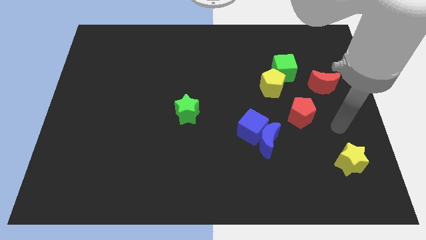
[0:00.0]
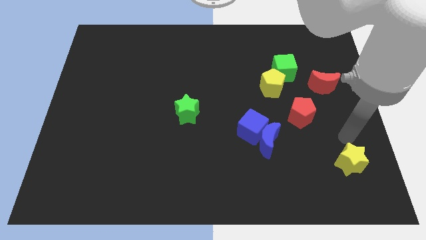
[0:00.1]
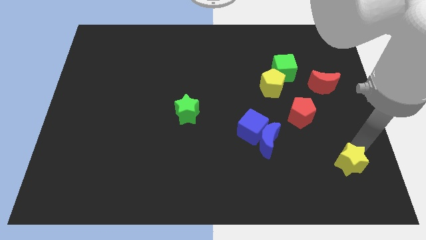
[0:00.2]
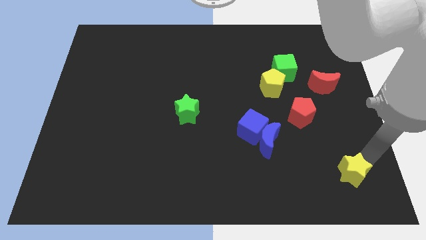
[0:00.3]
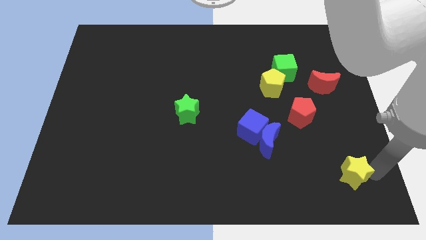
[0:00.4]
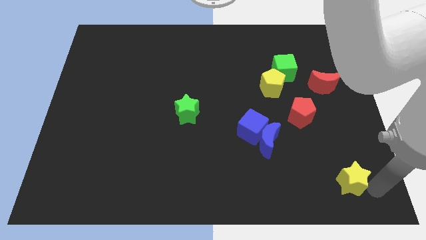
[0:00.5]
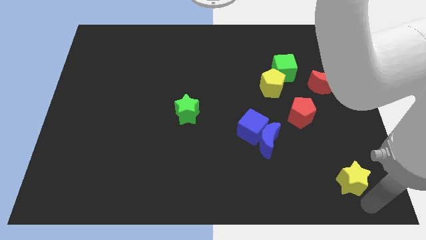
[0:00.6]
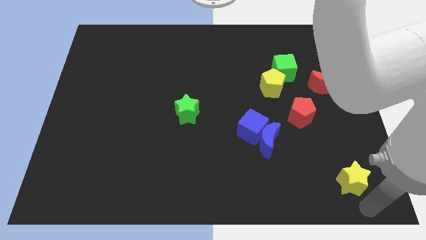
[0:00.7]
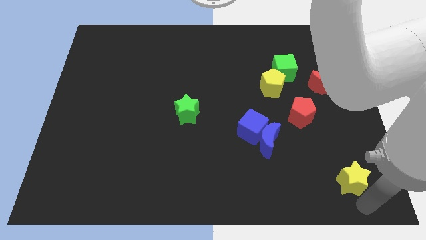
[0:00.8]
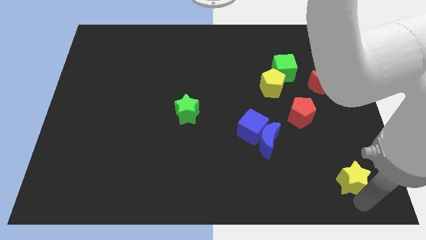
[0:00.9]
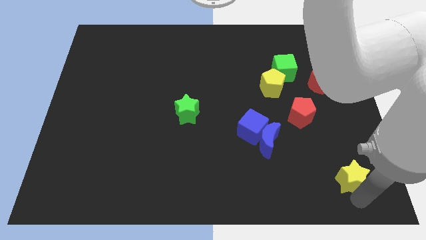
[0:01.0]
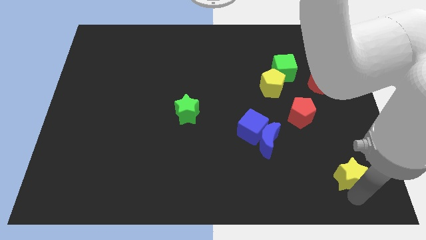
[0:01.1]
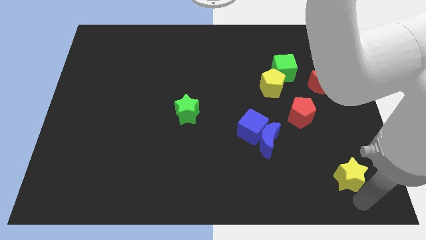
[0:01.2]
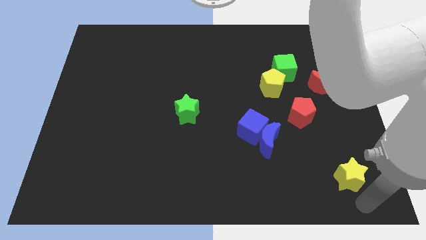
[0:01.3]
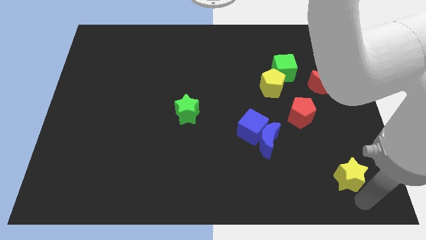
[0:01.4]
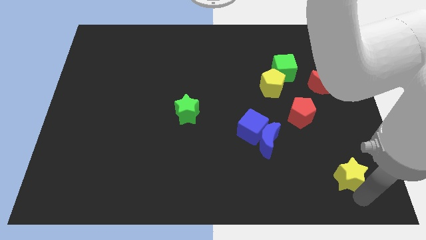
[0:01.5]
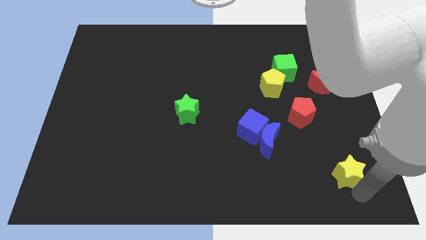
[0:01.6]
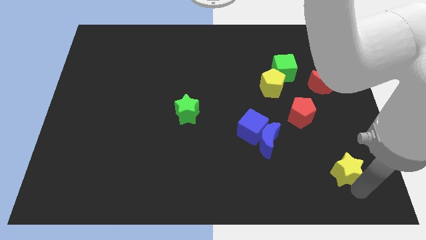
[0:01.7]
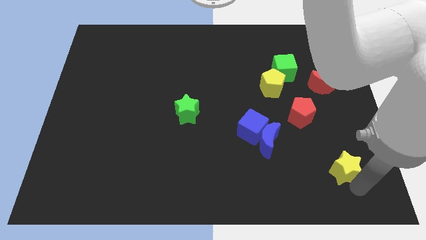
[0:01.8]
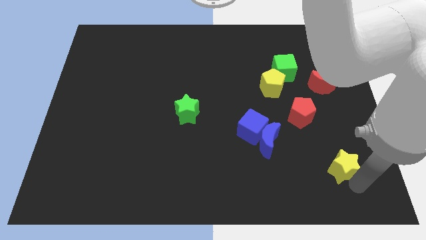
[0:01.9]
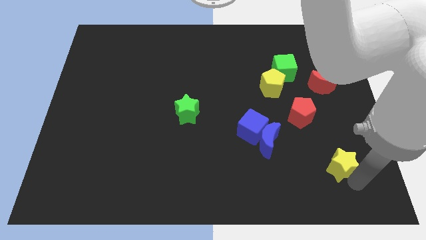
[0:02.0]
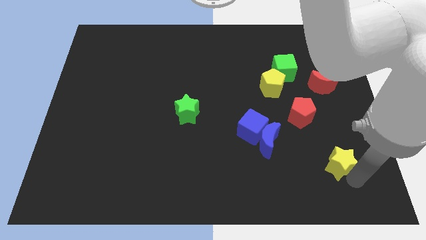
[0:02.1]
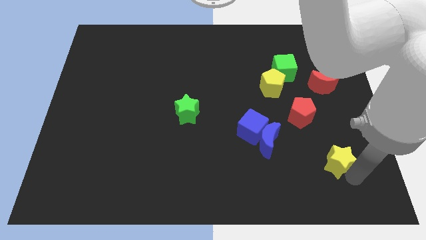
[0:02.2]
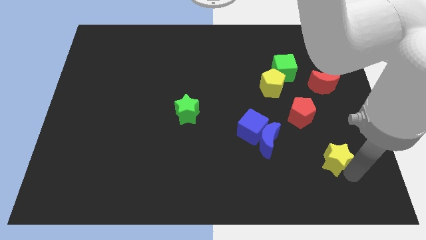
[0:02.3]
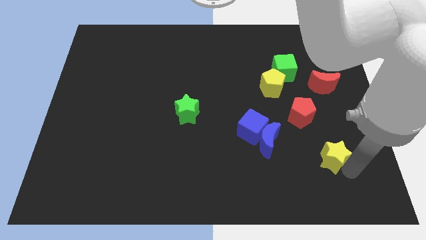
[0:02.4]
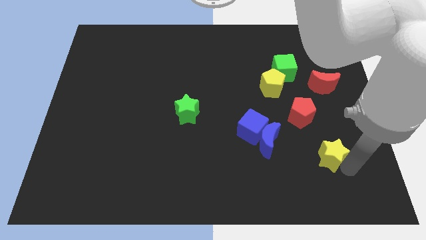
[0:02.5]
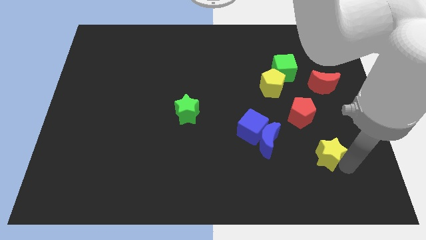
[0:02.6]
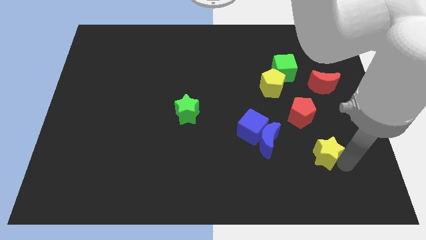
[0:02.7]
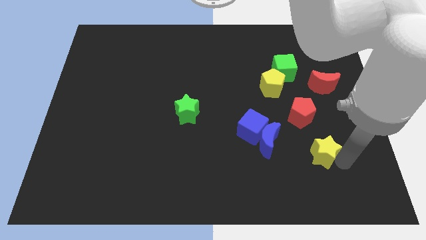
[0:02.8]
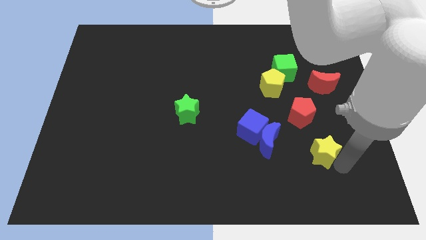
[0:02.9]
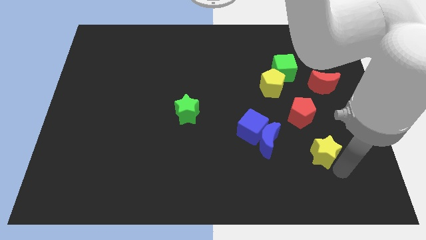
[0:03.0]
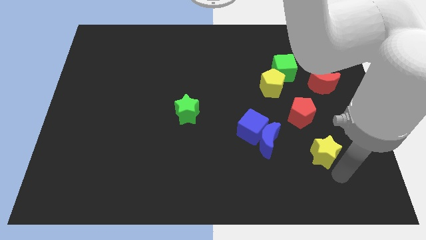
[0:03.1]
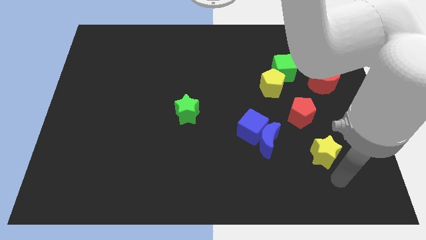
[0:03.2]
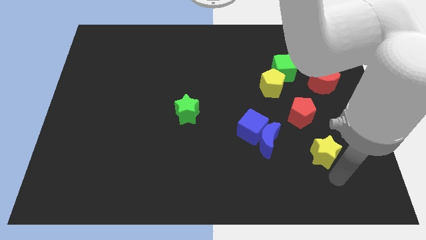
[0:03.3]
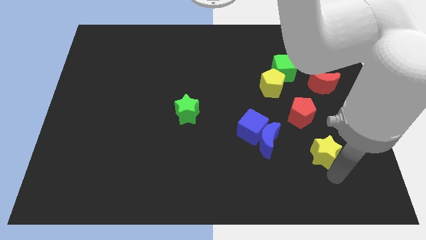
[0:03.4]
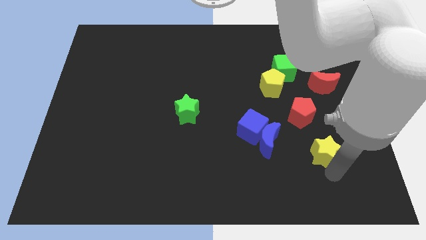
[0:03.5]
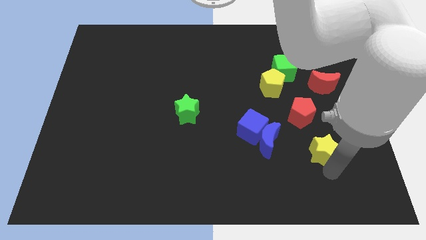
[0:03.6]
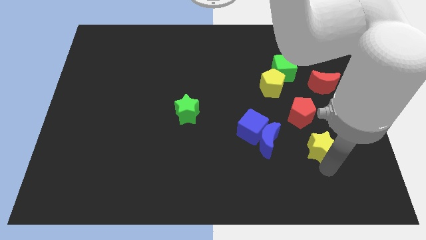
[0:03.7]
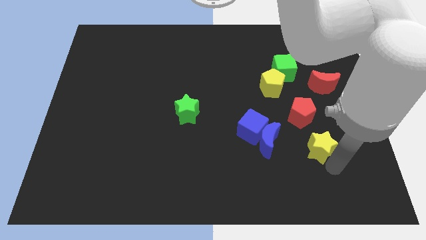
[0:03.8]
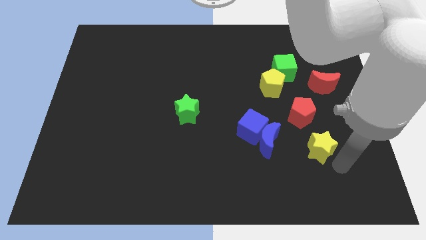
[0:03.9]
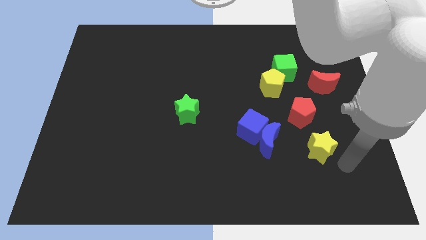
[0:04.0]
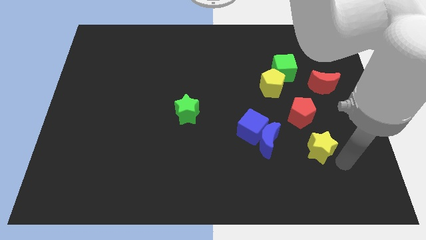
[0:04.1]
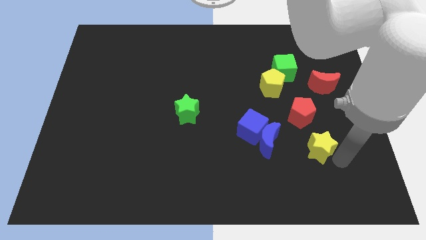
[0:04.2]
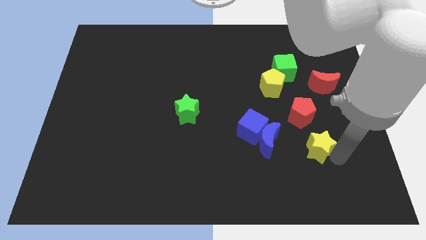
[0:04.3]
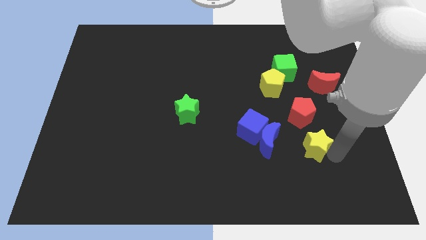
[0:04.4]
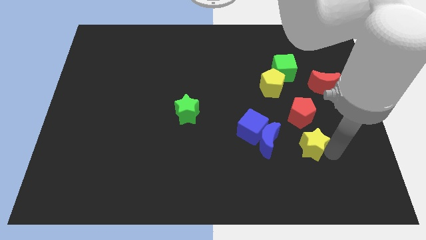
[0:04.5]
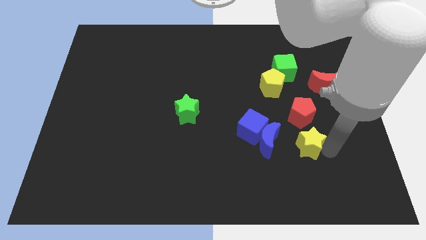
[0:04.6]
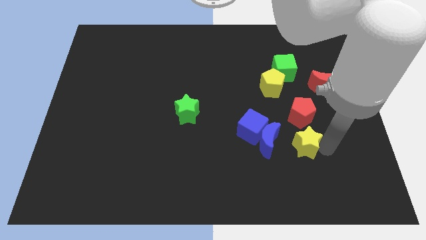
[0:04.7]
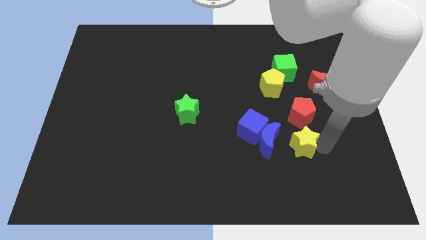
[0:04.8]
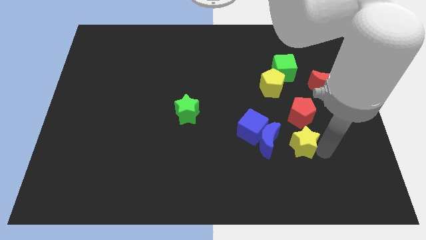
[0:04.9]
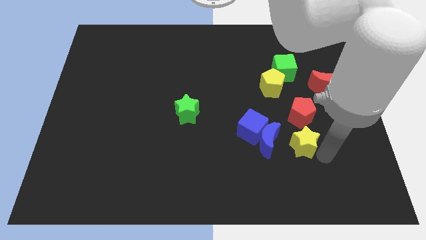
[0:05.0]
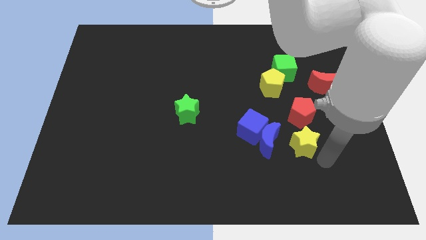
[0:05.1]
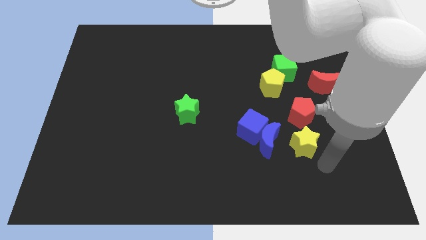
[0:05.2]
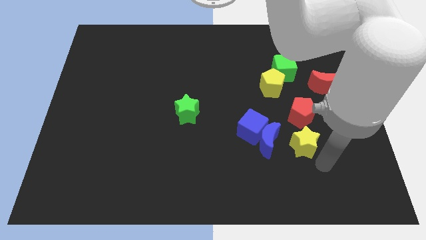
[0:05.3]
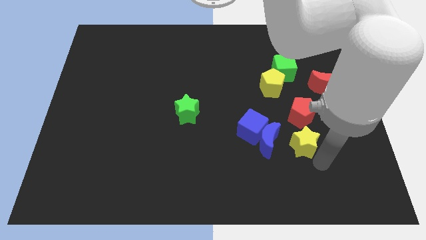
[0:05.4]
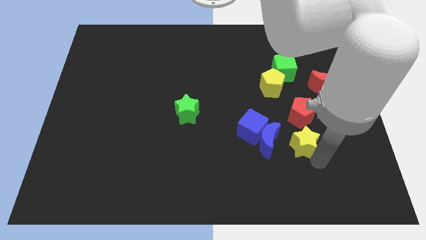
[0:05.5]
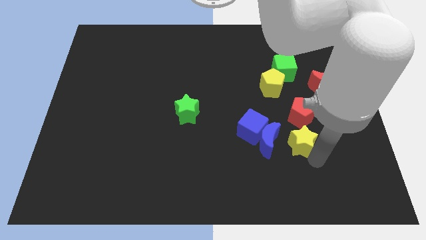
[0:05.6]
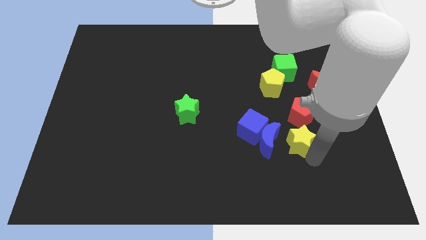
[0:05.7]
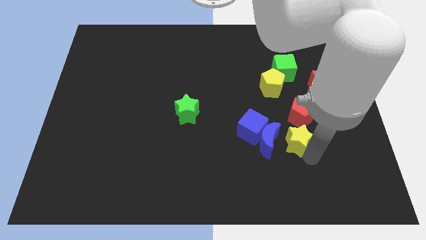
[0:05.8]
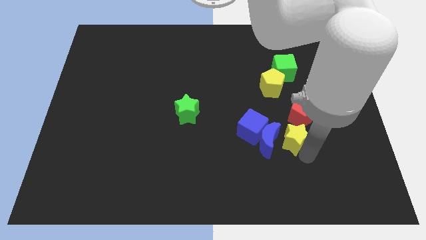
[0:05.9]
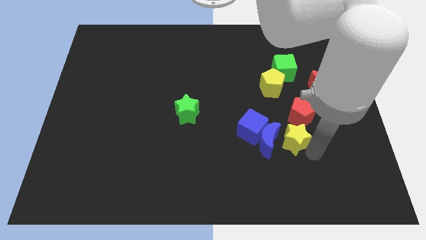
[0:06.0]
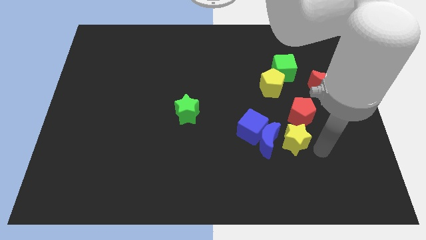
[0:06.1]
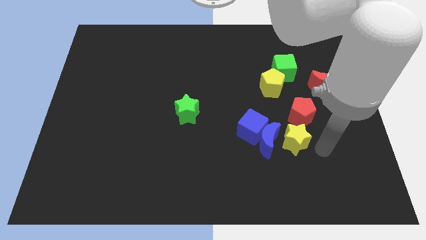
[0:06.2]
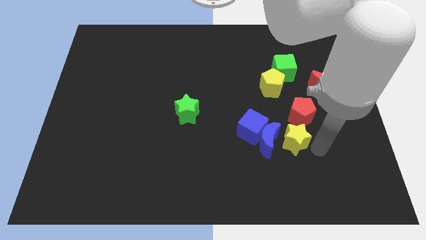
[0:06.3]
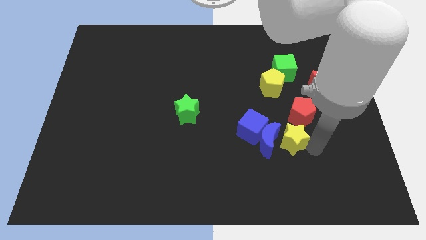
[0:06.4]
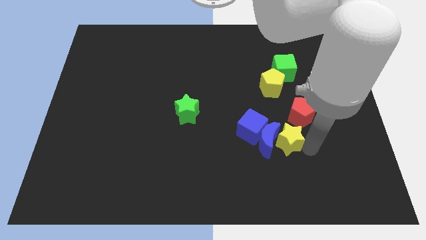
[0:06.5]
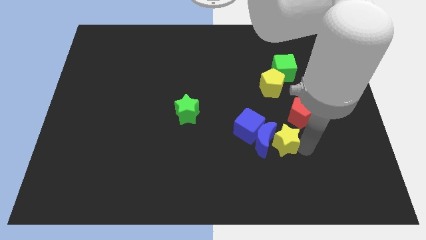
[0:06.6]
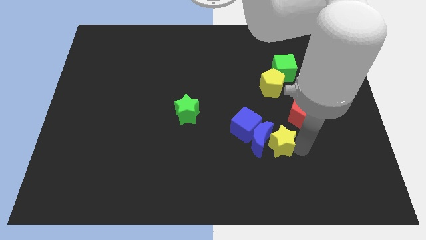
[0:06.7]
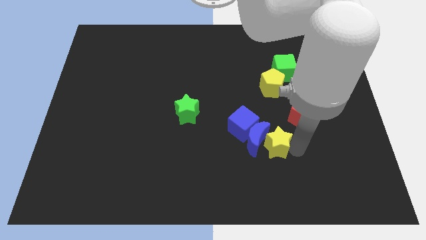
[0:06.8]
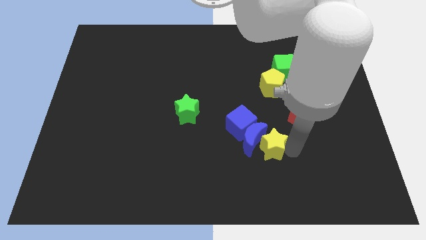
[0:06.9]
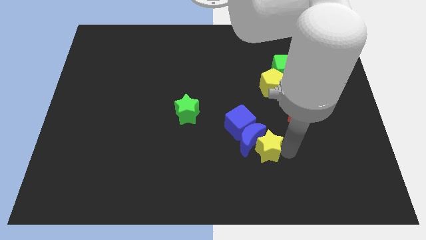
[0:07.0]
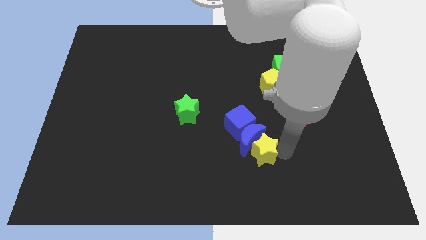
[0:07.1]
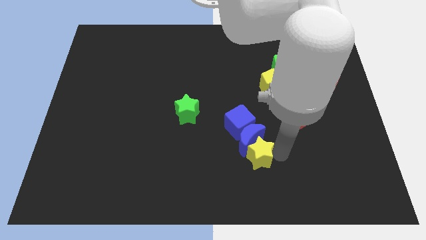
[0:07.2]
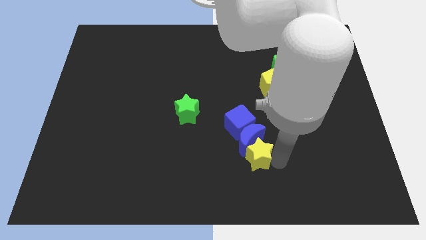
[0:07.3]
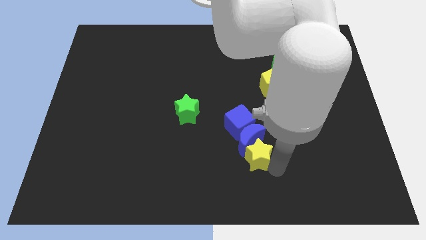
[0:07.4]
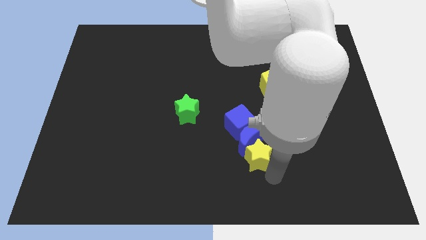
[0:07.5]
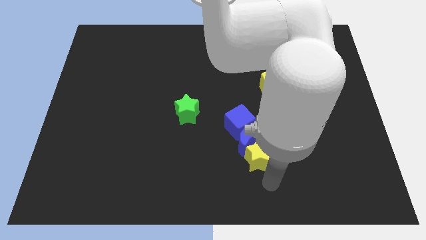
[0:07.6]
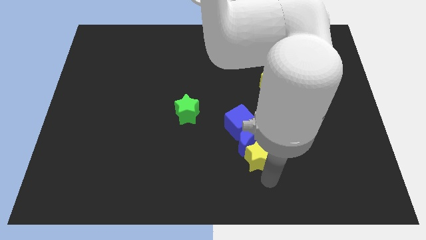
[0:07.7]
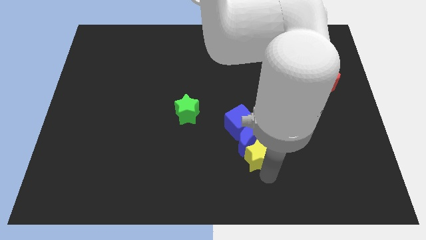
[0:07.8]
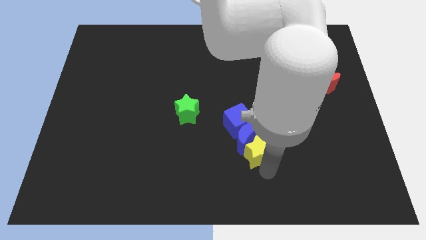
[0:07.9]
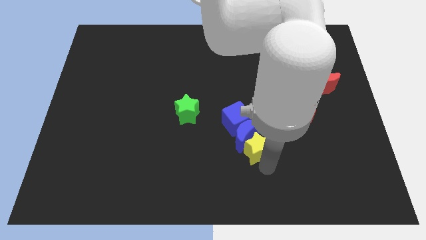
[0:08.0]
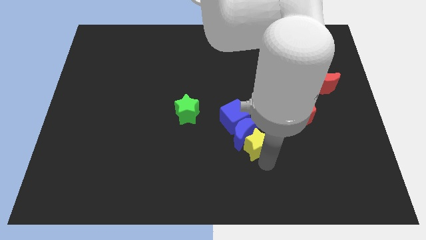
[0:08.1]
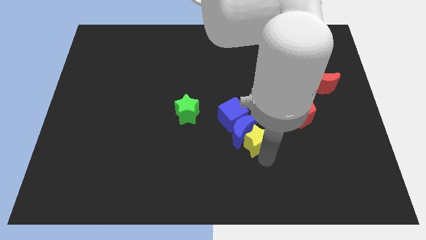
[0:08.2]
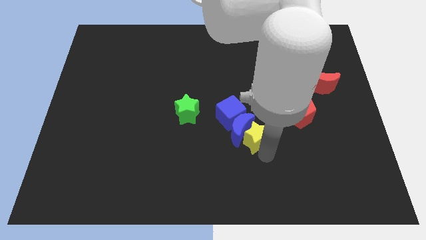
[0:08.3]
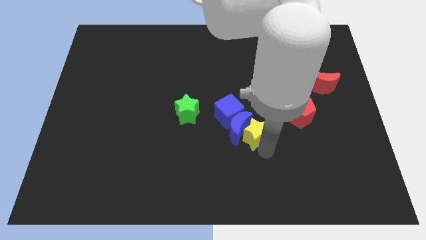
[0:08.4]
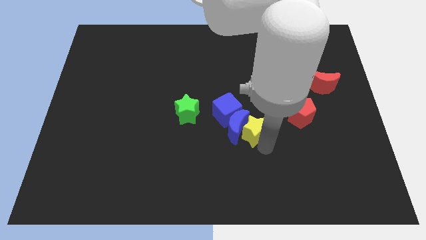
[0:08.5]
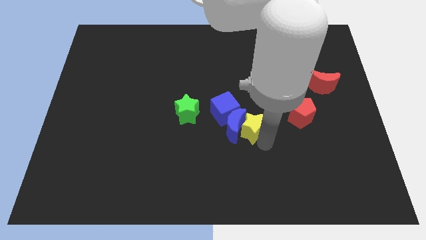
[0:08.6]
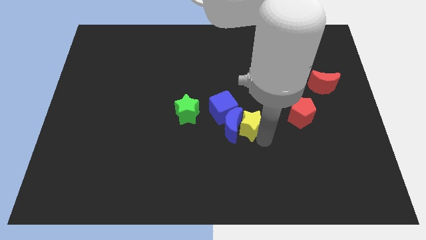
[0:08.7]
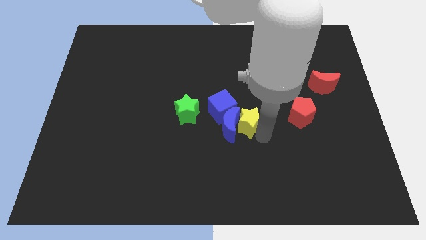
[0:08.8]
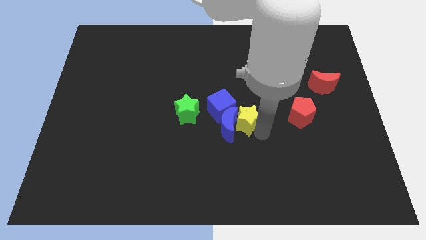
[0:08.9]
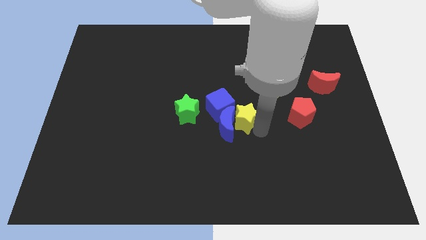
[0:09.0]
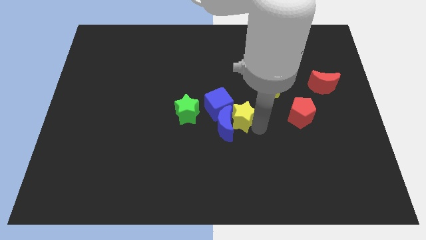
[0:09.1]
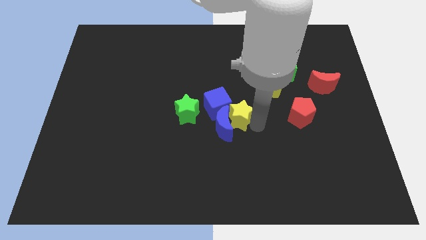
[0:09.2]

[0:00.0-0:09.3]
move the yellow star close to the blue cube
